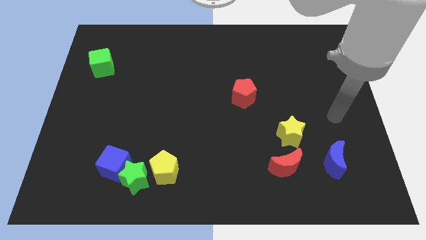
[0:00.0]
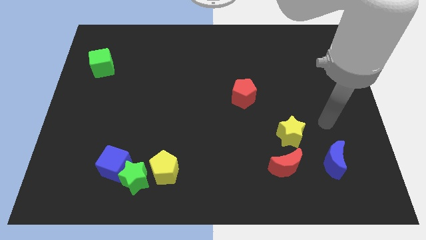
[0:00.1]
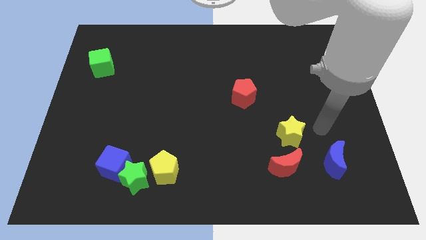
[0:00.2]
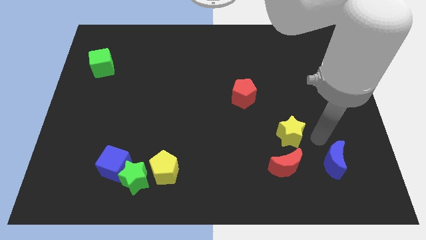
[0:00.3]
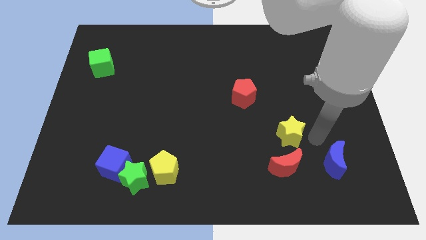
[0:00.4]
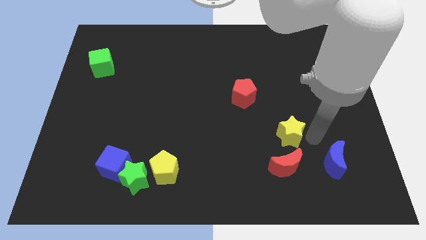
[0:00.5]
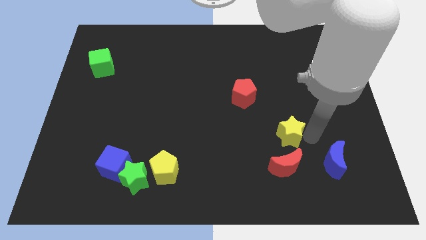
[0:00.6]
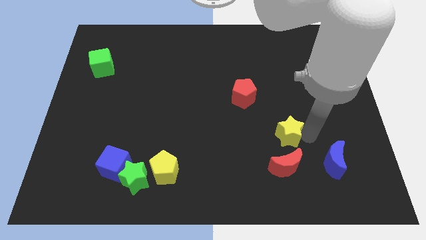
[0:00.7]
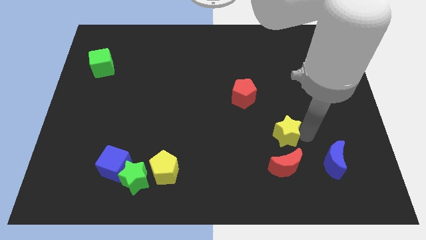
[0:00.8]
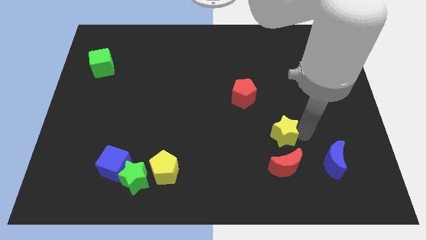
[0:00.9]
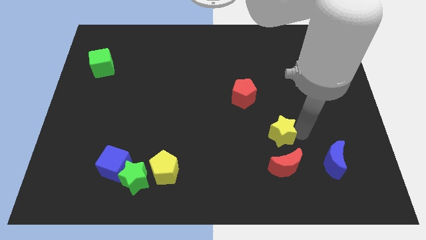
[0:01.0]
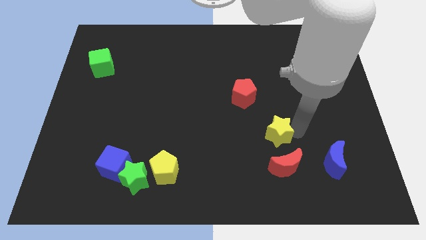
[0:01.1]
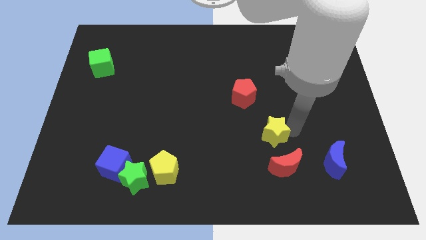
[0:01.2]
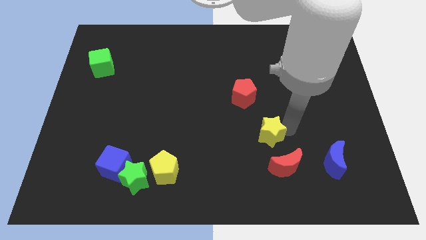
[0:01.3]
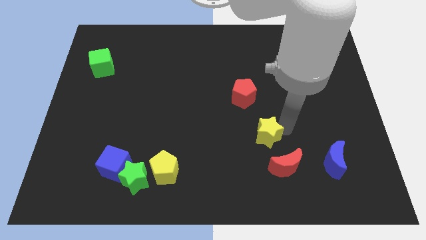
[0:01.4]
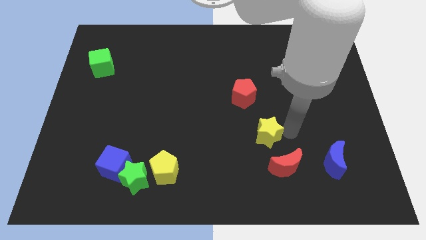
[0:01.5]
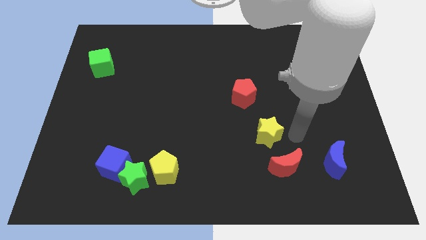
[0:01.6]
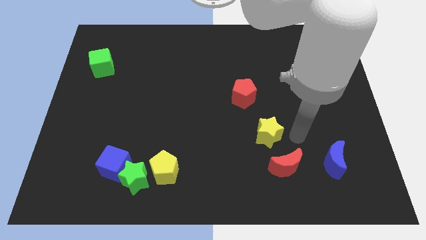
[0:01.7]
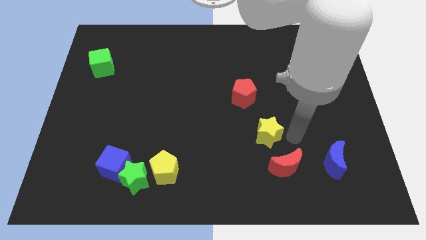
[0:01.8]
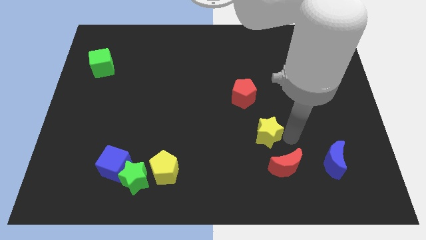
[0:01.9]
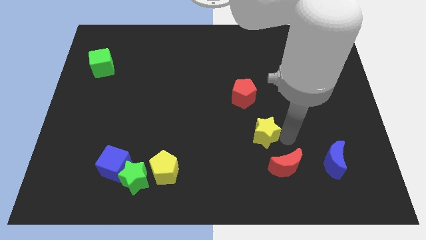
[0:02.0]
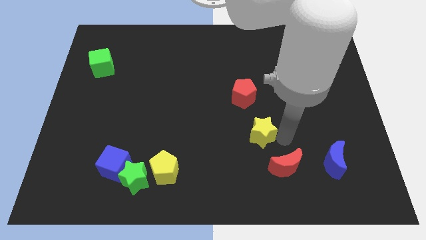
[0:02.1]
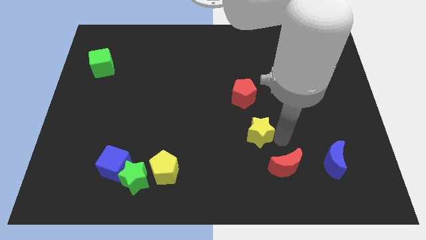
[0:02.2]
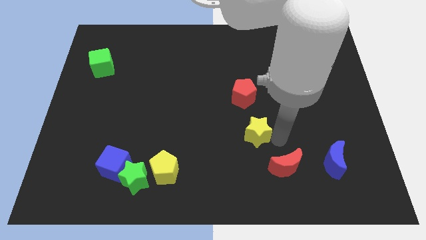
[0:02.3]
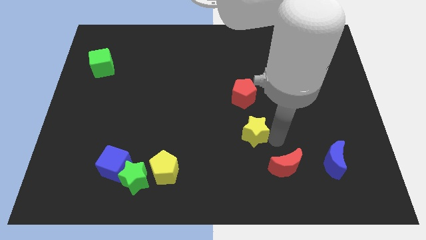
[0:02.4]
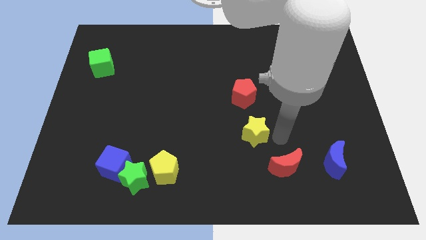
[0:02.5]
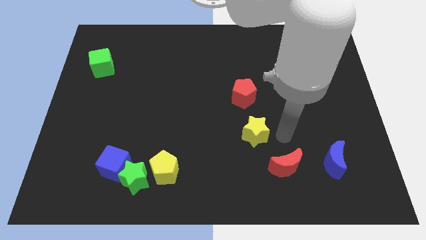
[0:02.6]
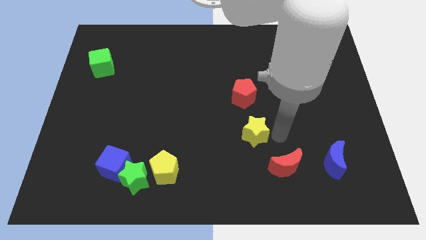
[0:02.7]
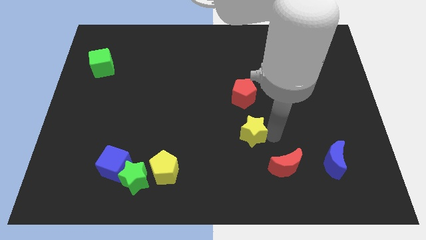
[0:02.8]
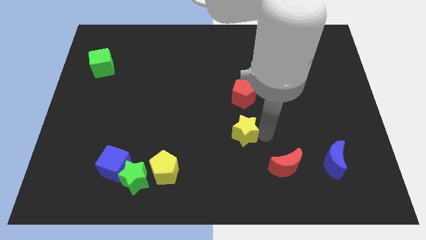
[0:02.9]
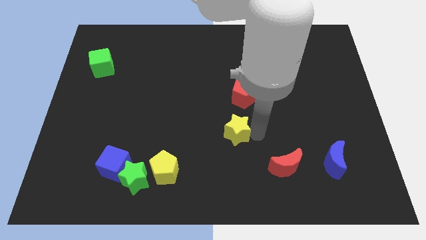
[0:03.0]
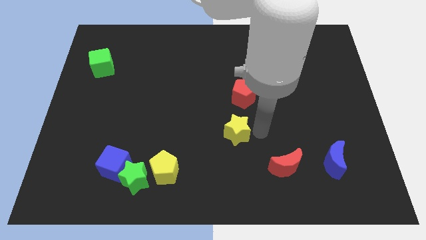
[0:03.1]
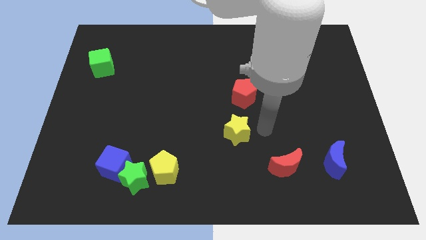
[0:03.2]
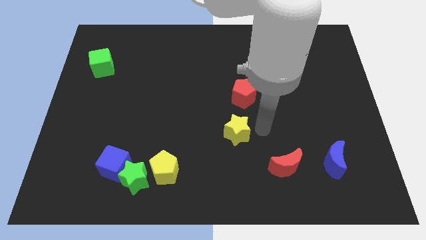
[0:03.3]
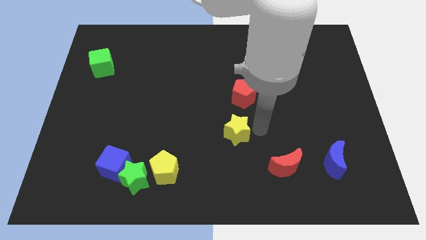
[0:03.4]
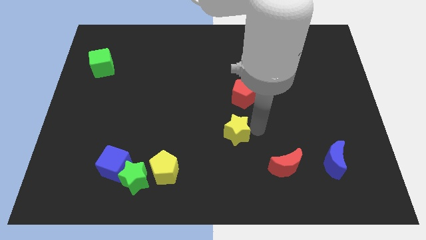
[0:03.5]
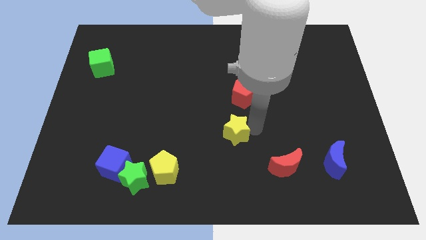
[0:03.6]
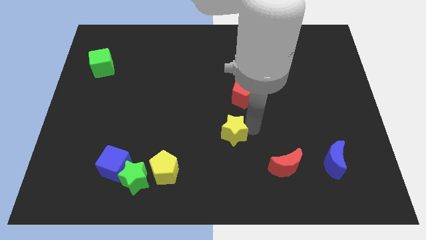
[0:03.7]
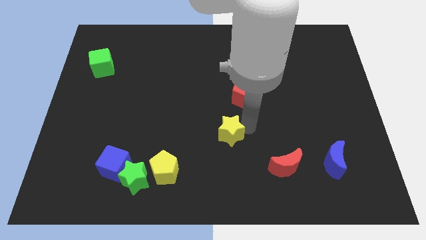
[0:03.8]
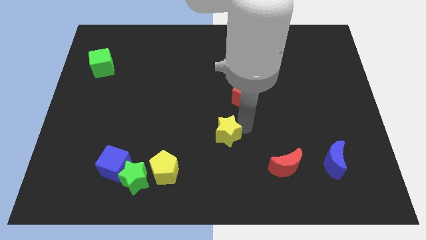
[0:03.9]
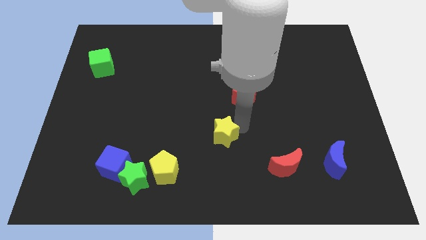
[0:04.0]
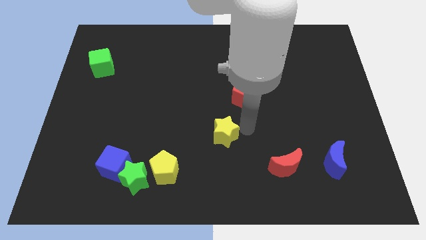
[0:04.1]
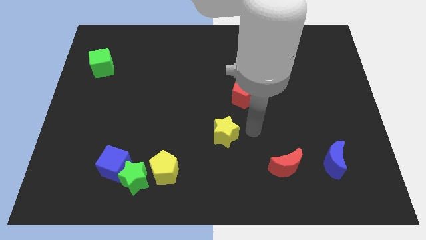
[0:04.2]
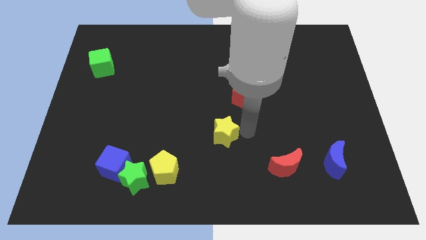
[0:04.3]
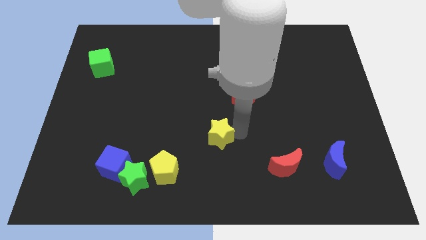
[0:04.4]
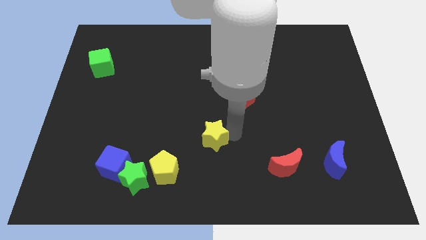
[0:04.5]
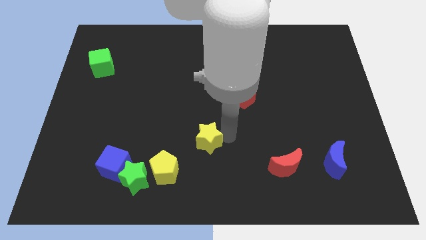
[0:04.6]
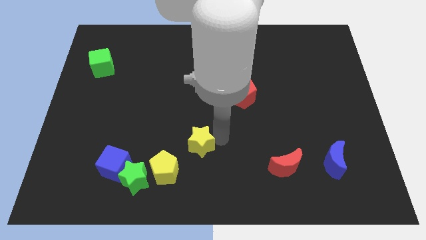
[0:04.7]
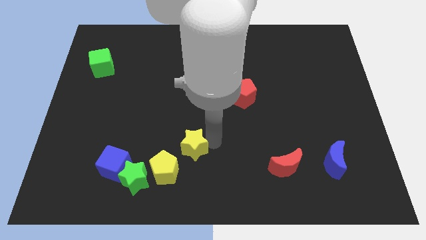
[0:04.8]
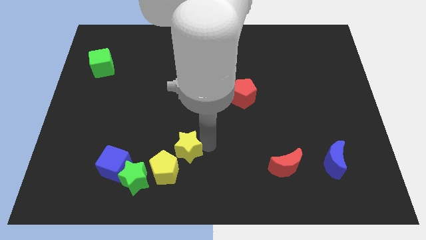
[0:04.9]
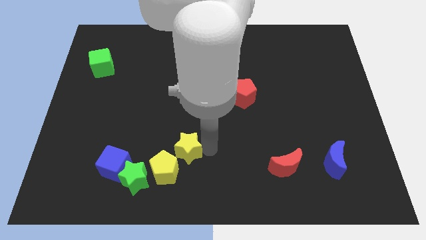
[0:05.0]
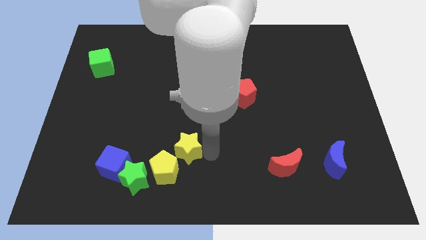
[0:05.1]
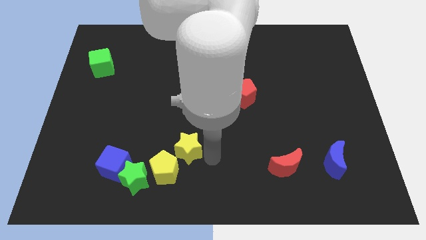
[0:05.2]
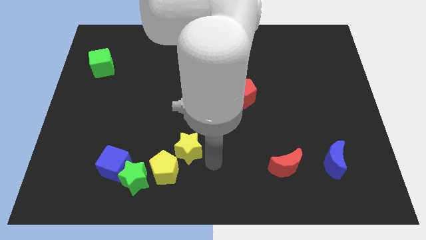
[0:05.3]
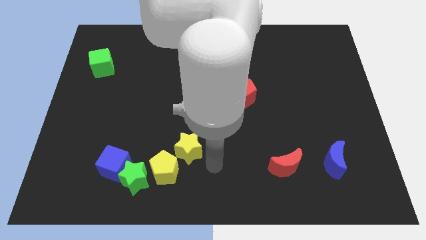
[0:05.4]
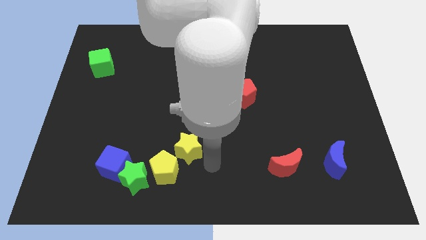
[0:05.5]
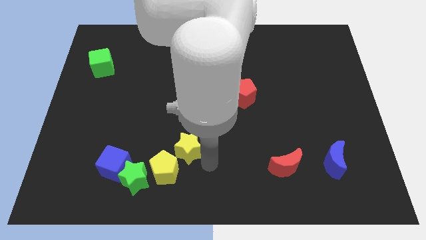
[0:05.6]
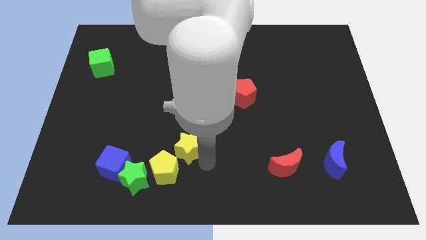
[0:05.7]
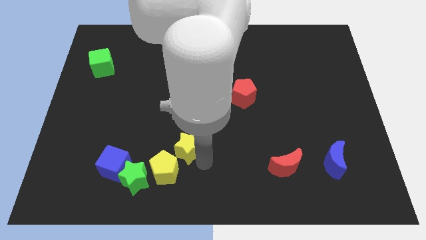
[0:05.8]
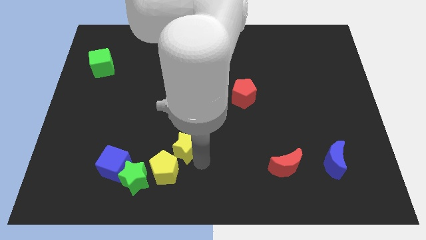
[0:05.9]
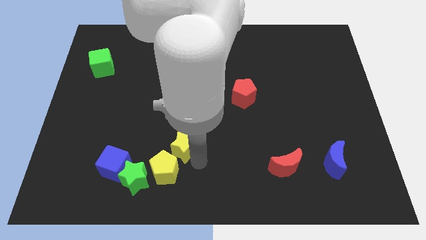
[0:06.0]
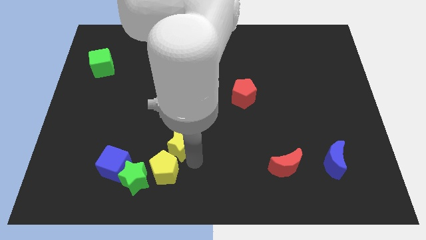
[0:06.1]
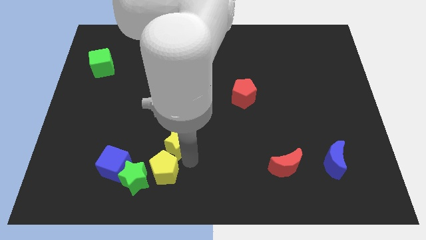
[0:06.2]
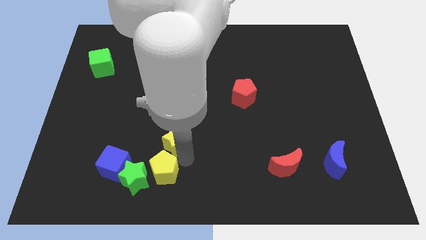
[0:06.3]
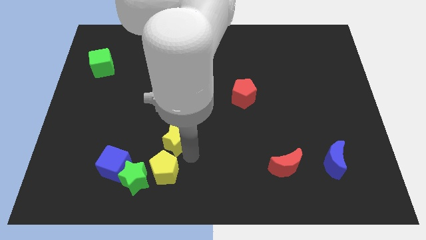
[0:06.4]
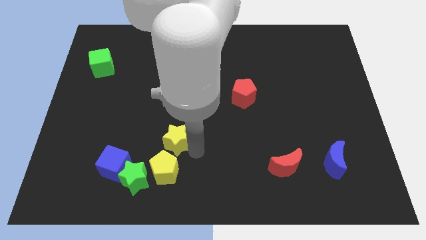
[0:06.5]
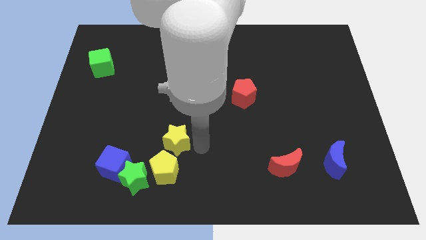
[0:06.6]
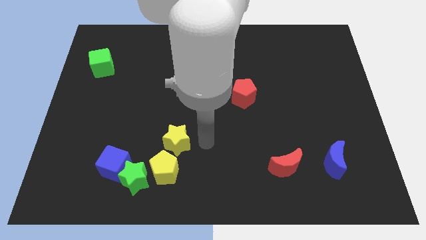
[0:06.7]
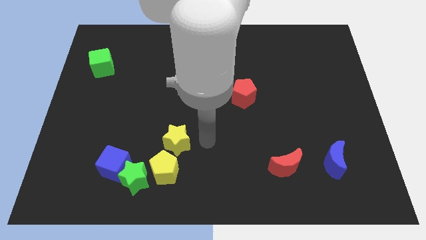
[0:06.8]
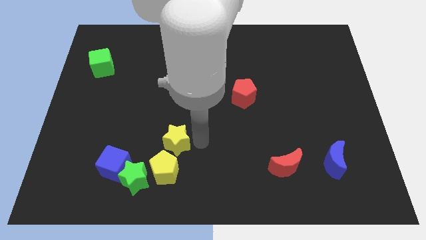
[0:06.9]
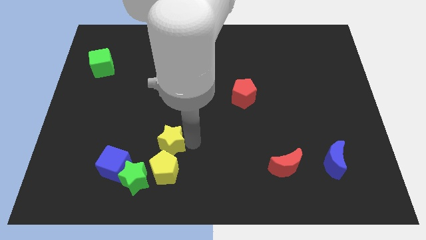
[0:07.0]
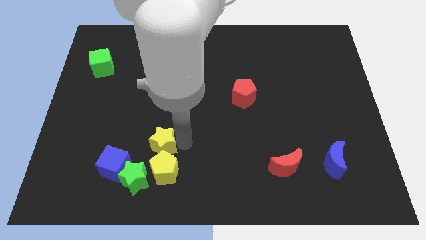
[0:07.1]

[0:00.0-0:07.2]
push the yellow star to the top right side of the blue cube

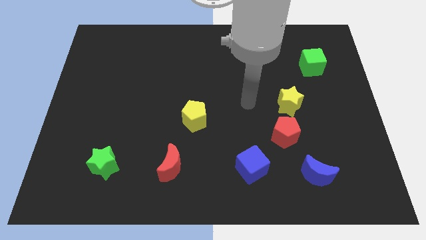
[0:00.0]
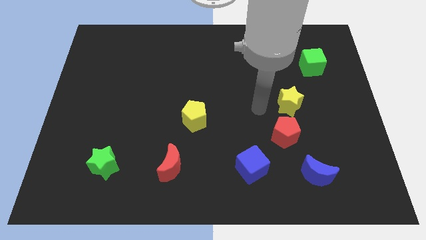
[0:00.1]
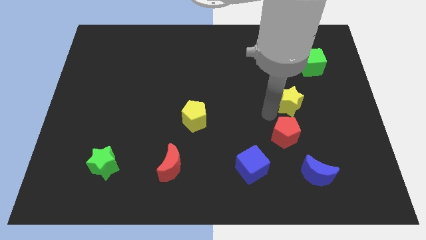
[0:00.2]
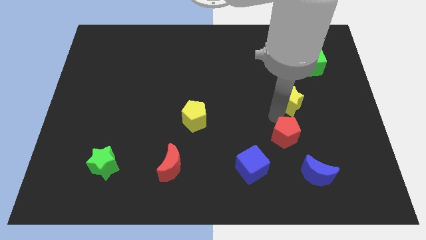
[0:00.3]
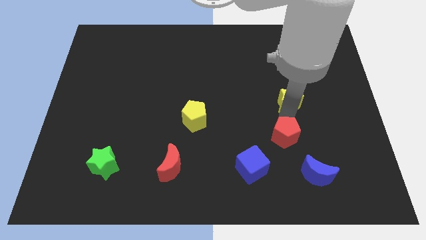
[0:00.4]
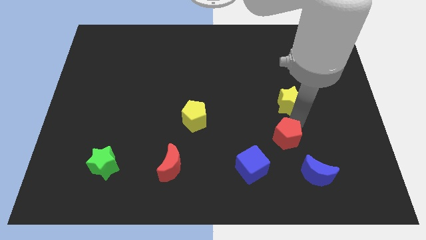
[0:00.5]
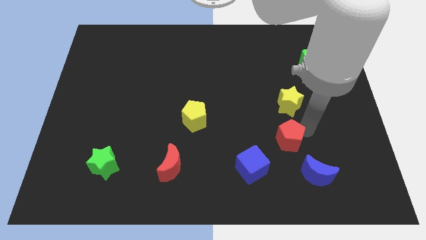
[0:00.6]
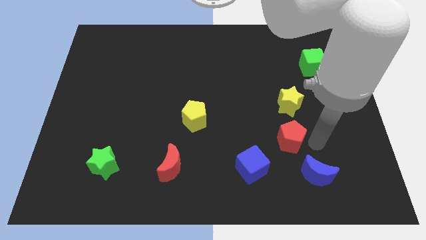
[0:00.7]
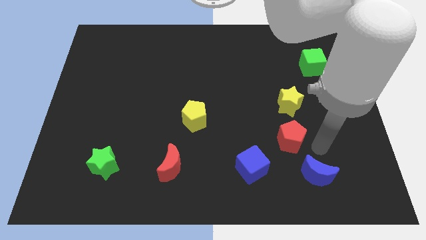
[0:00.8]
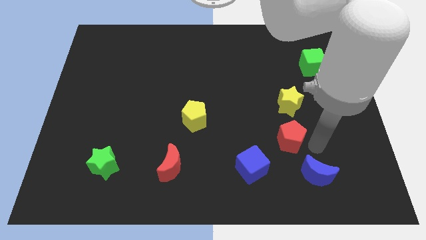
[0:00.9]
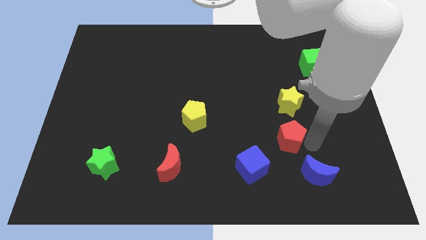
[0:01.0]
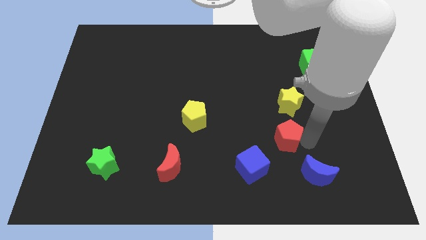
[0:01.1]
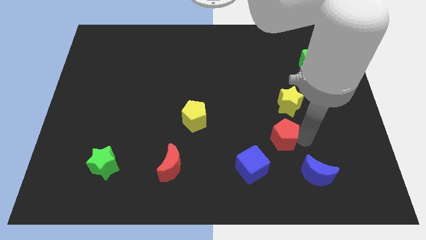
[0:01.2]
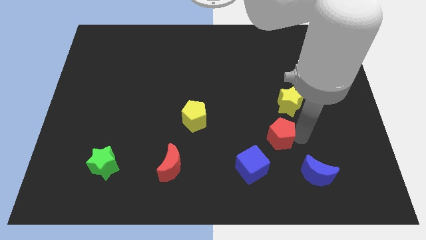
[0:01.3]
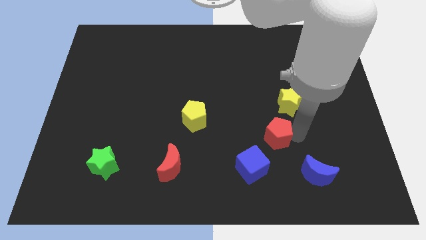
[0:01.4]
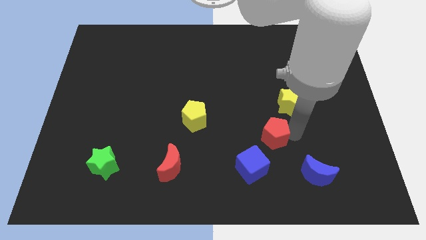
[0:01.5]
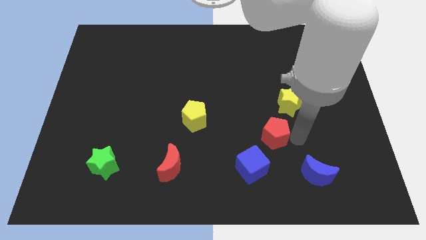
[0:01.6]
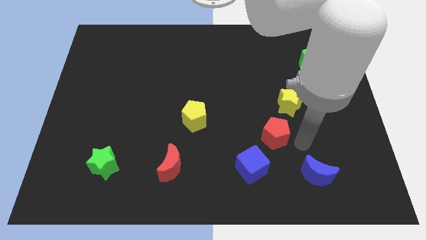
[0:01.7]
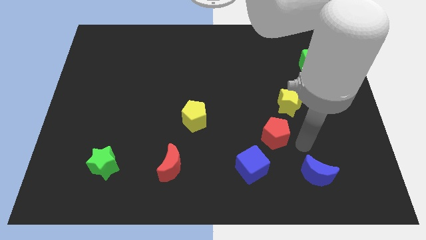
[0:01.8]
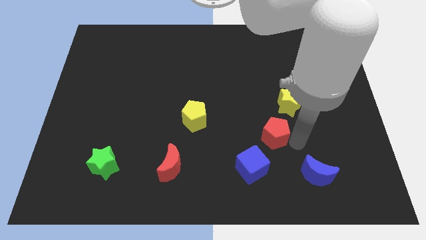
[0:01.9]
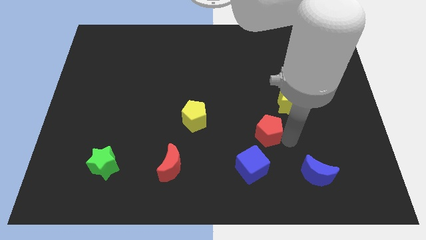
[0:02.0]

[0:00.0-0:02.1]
move the red pentagon above the blue cube
